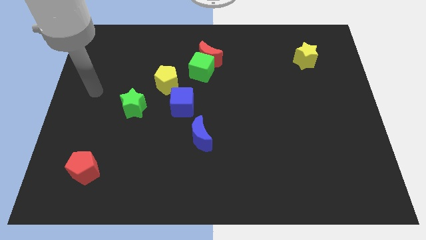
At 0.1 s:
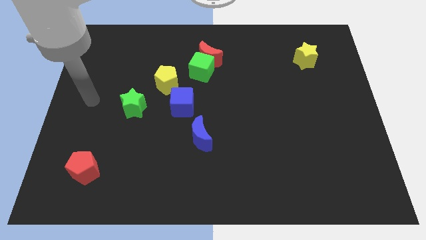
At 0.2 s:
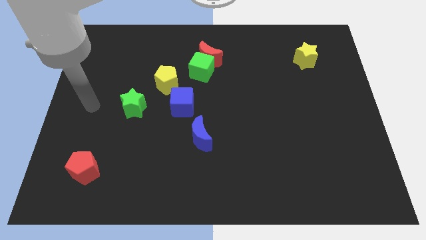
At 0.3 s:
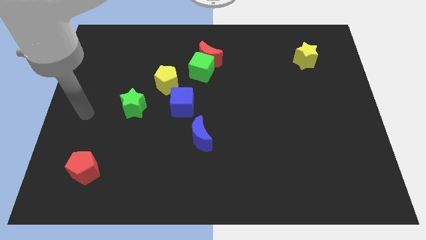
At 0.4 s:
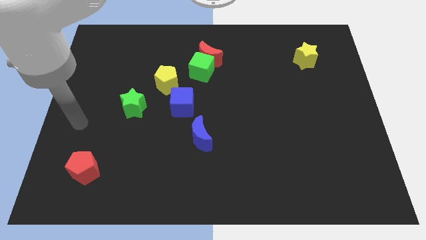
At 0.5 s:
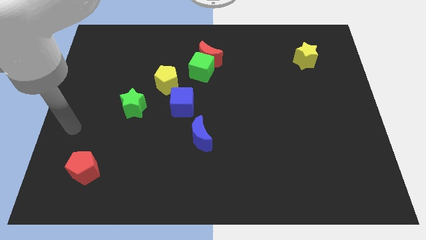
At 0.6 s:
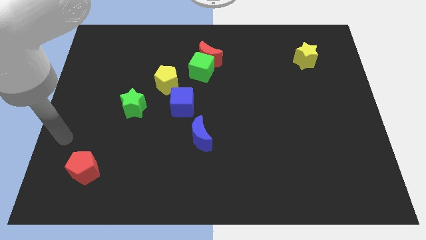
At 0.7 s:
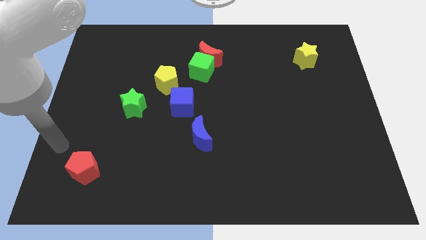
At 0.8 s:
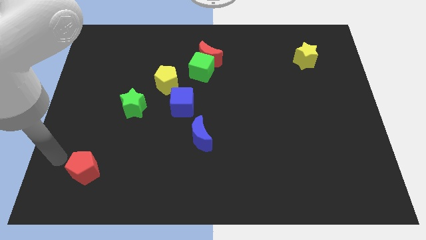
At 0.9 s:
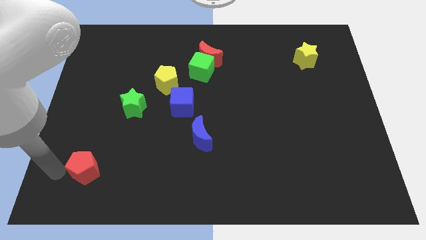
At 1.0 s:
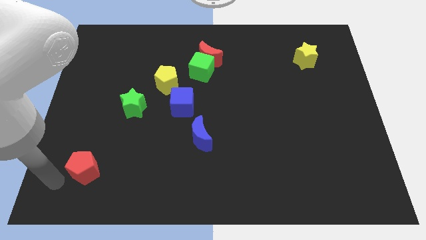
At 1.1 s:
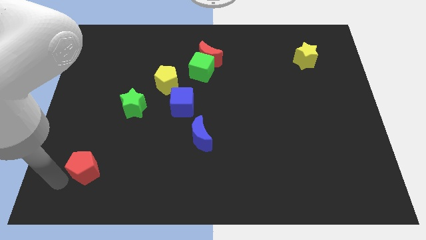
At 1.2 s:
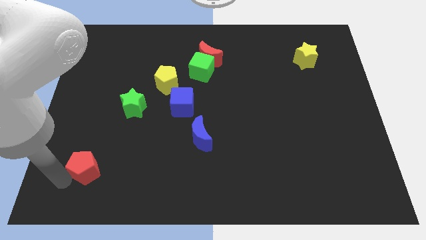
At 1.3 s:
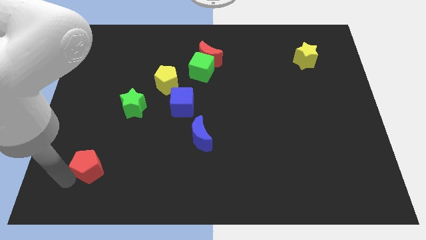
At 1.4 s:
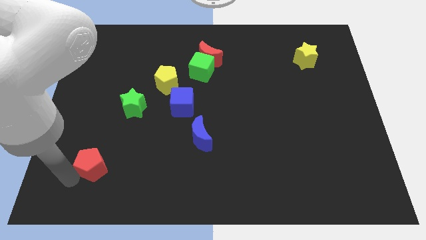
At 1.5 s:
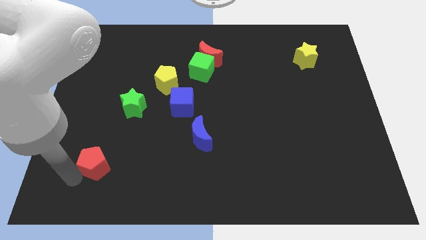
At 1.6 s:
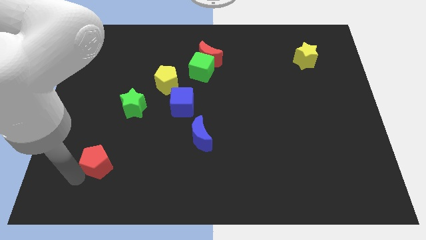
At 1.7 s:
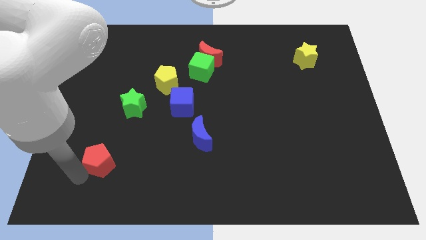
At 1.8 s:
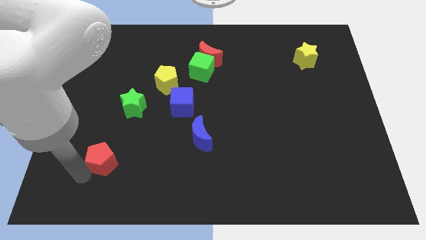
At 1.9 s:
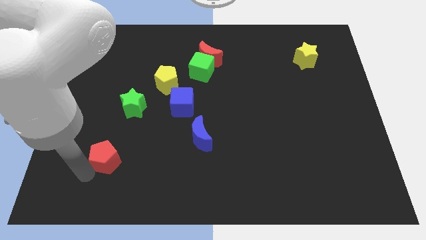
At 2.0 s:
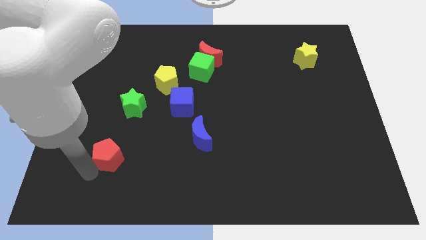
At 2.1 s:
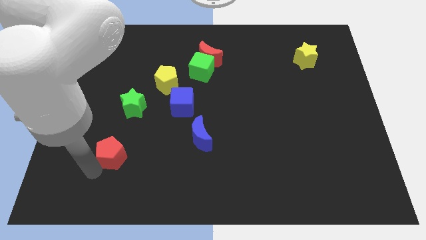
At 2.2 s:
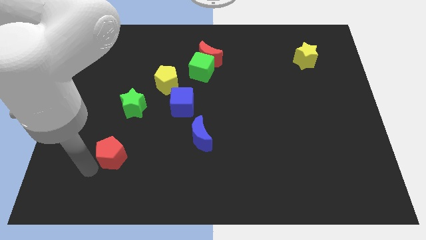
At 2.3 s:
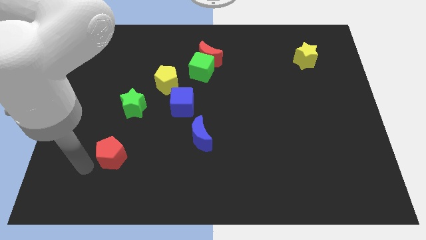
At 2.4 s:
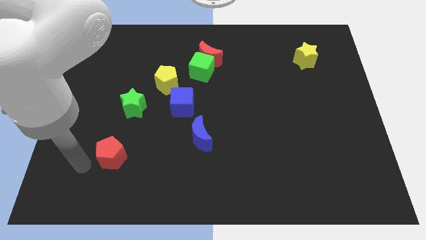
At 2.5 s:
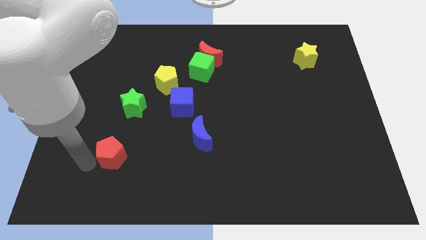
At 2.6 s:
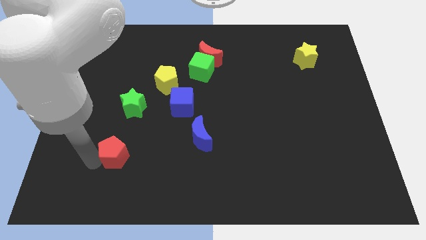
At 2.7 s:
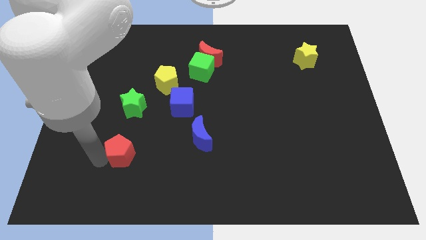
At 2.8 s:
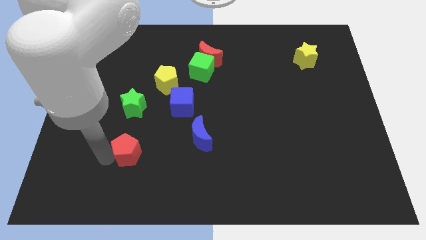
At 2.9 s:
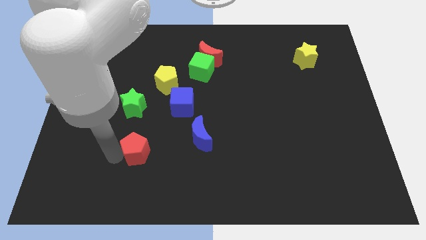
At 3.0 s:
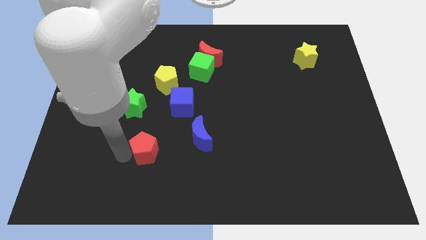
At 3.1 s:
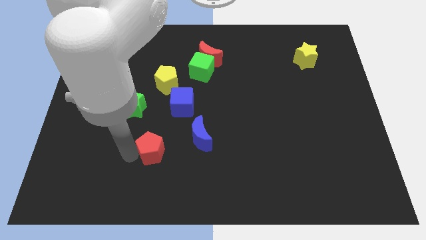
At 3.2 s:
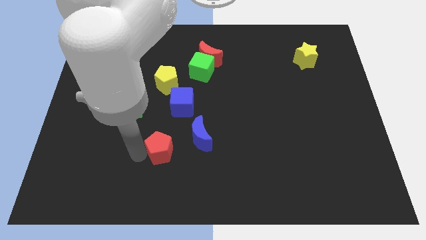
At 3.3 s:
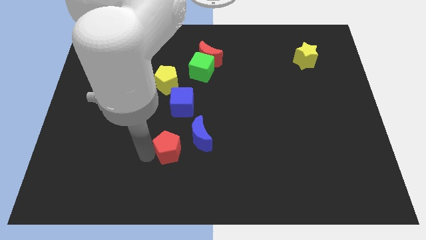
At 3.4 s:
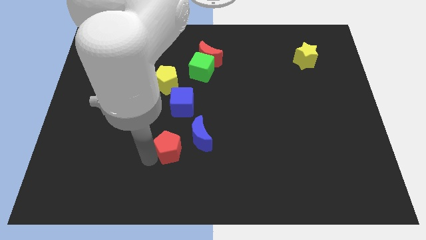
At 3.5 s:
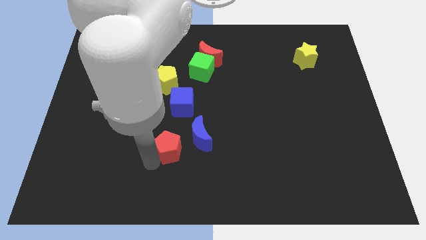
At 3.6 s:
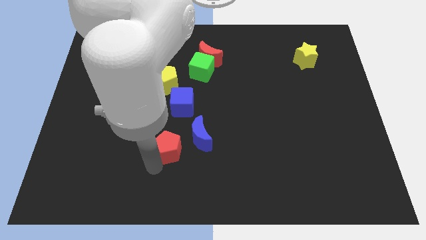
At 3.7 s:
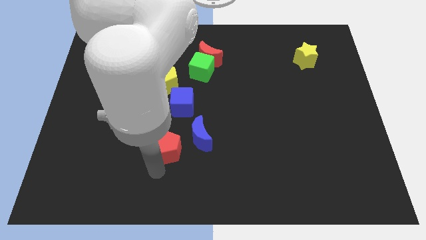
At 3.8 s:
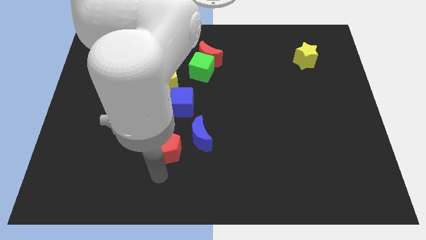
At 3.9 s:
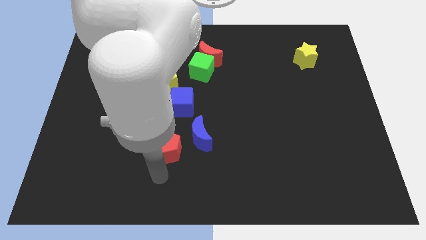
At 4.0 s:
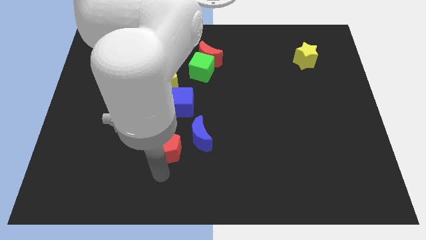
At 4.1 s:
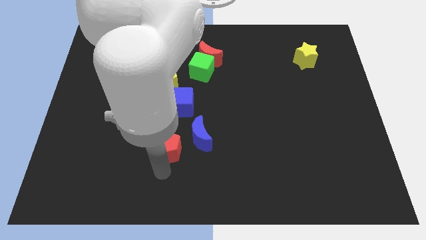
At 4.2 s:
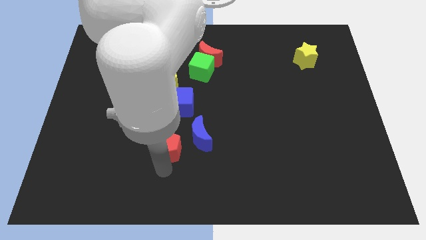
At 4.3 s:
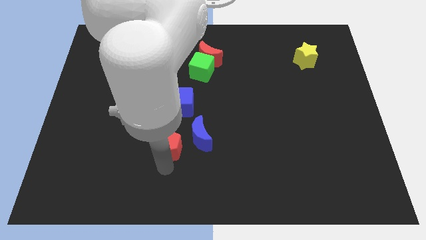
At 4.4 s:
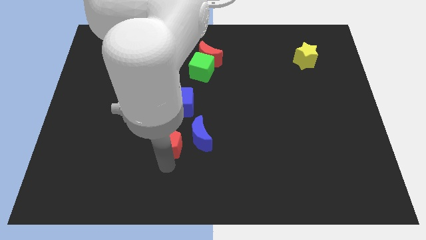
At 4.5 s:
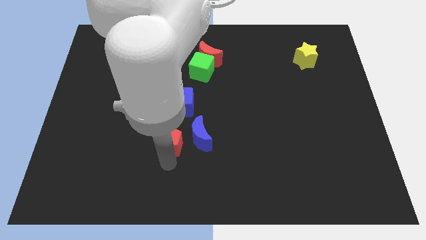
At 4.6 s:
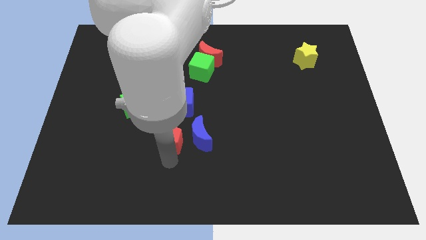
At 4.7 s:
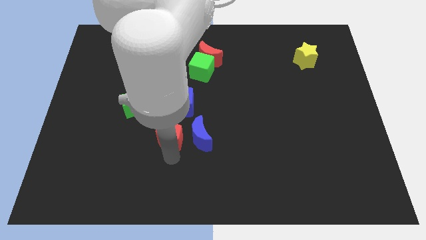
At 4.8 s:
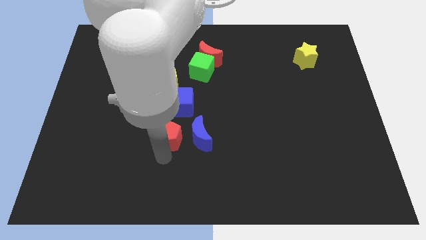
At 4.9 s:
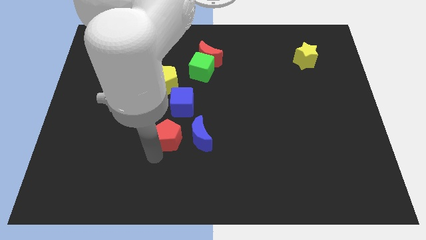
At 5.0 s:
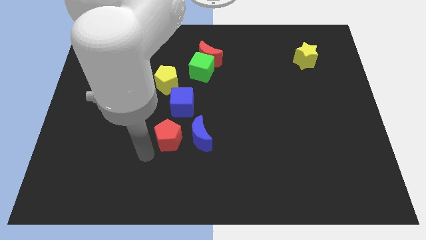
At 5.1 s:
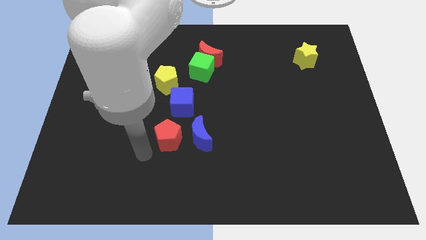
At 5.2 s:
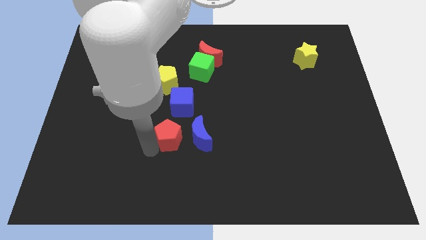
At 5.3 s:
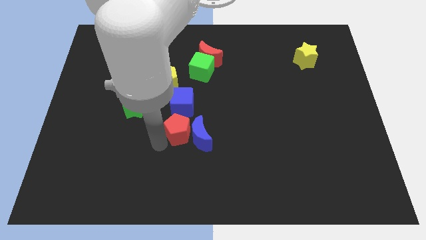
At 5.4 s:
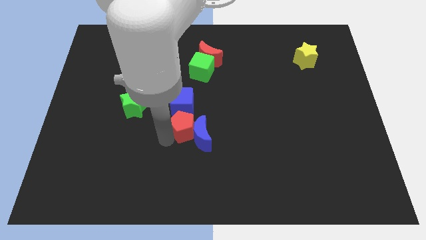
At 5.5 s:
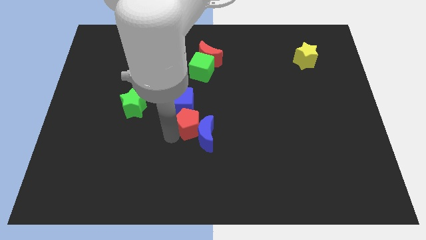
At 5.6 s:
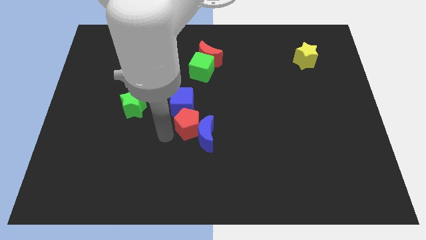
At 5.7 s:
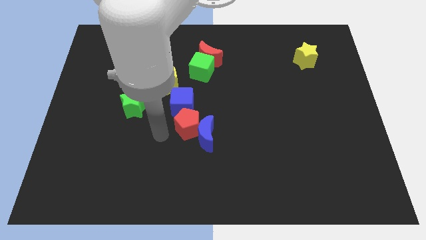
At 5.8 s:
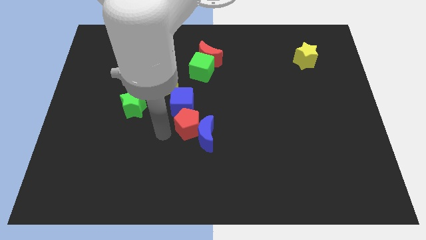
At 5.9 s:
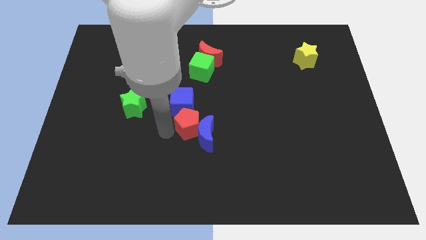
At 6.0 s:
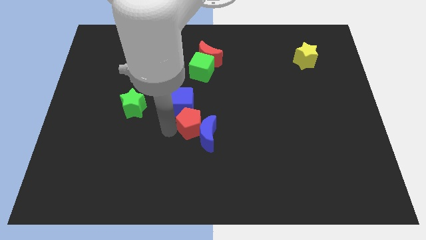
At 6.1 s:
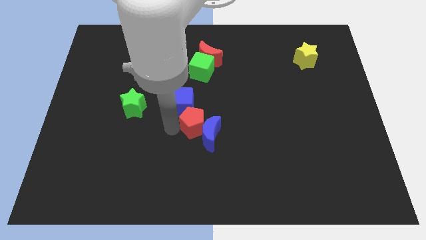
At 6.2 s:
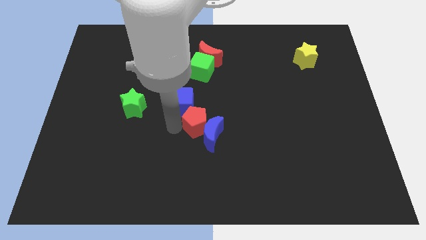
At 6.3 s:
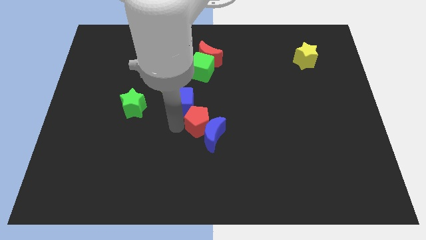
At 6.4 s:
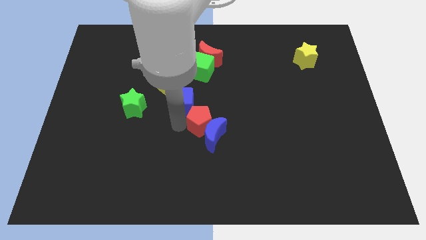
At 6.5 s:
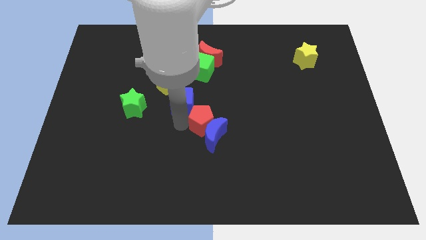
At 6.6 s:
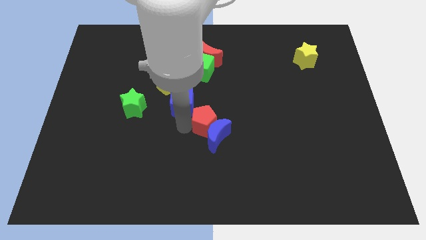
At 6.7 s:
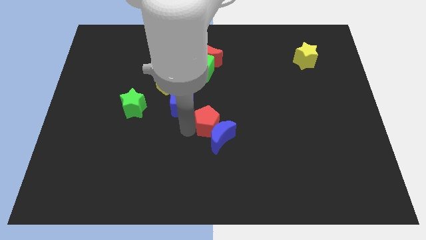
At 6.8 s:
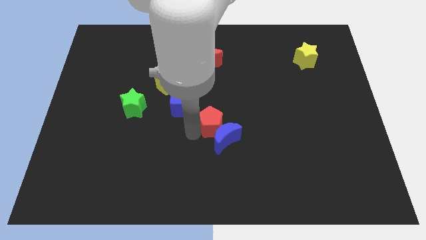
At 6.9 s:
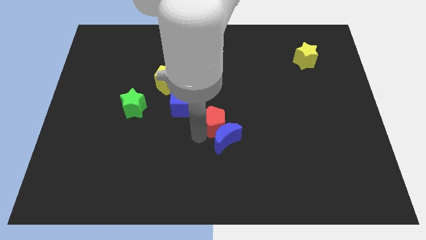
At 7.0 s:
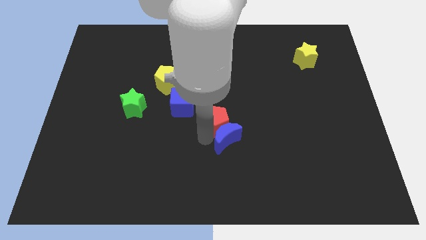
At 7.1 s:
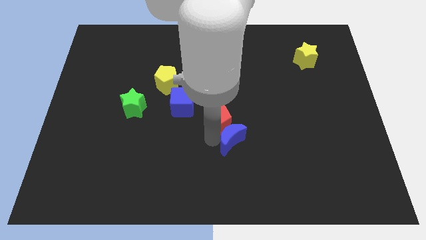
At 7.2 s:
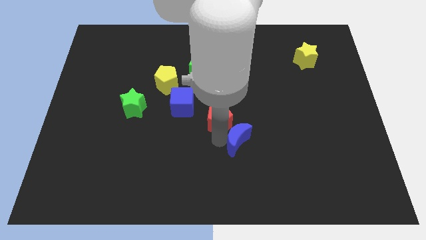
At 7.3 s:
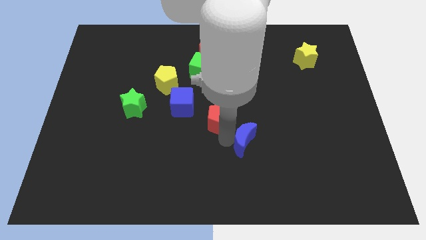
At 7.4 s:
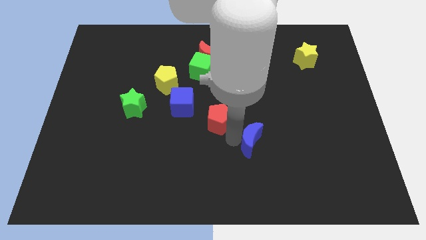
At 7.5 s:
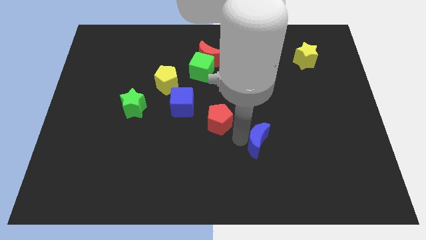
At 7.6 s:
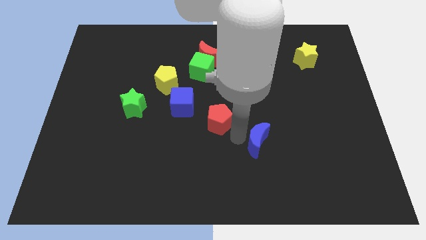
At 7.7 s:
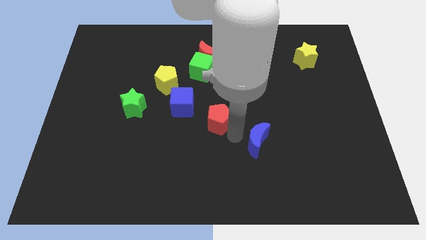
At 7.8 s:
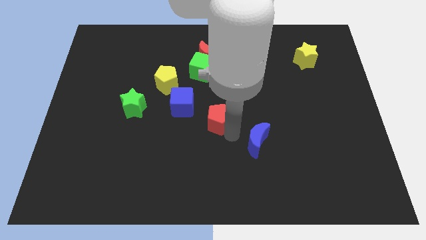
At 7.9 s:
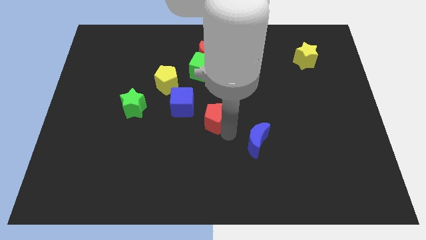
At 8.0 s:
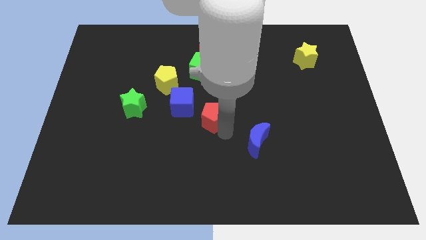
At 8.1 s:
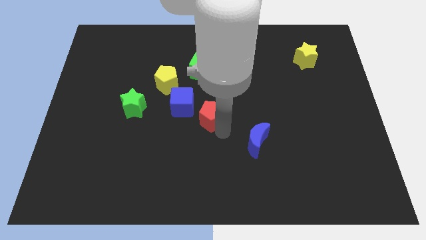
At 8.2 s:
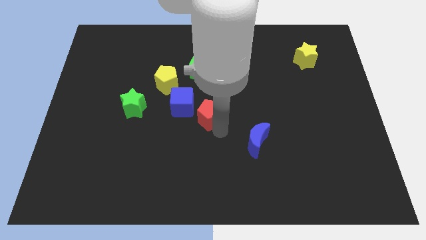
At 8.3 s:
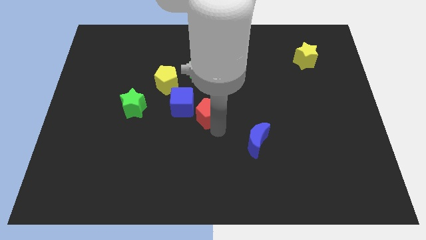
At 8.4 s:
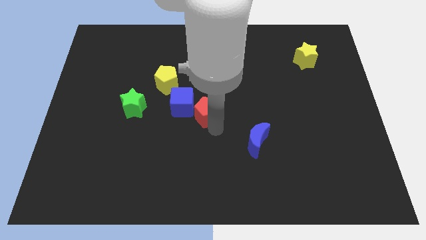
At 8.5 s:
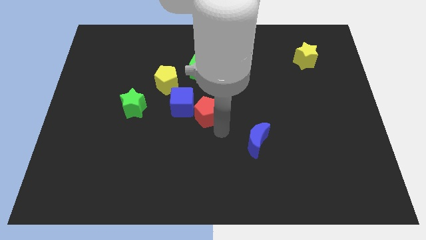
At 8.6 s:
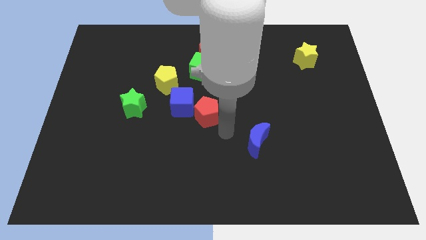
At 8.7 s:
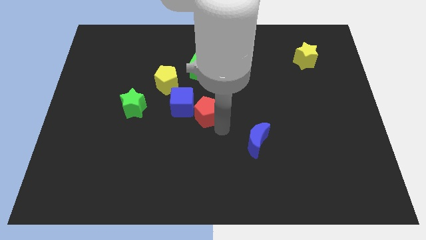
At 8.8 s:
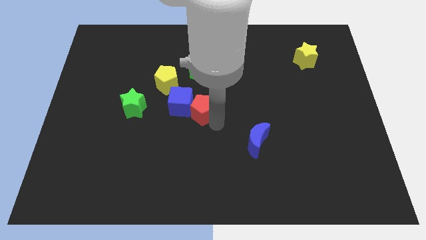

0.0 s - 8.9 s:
put the red pentagon to the bottom right side of the yellow pentagon
